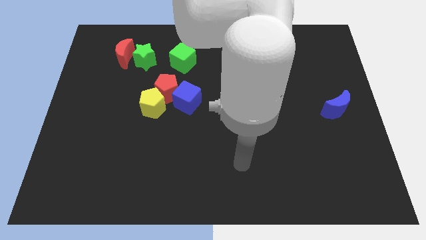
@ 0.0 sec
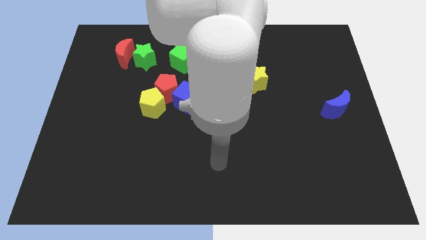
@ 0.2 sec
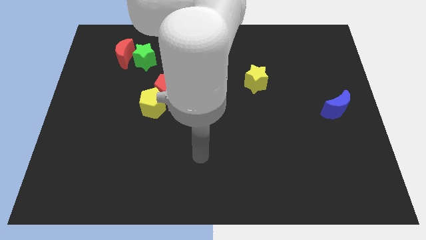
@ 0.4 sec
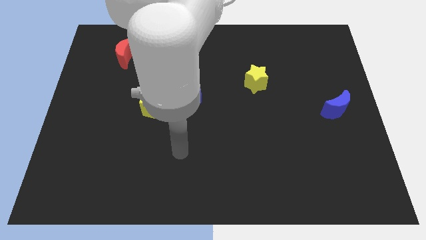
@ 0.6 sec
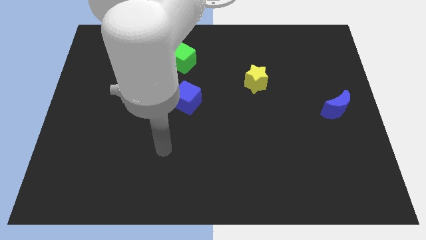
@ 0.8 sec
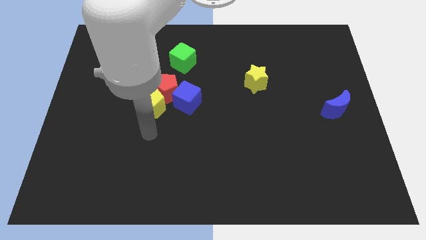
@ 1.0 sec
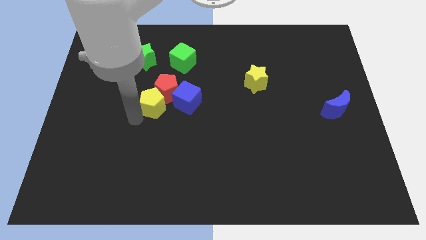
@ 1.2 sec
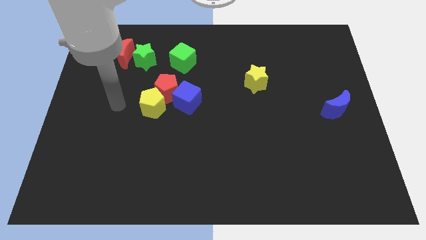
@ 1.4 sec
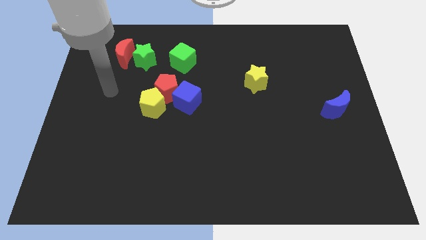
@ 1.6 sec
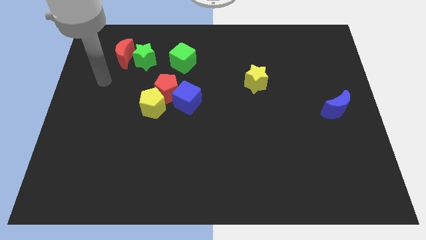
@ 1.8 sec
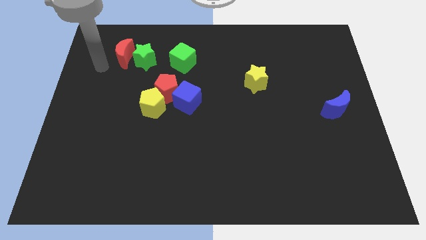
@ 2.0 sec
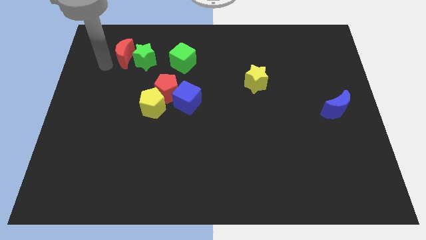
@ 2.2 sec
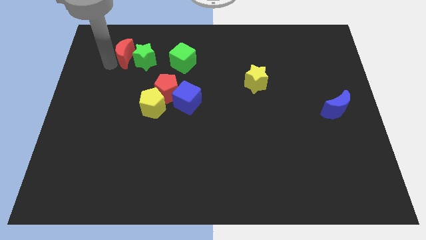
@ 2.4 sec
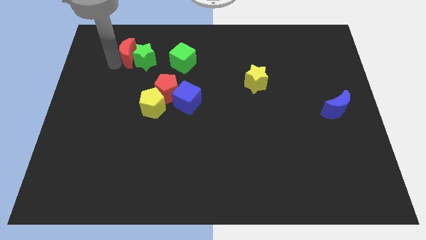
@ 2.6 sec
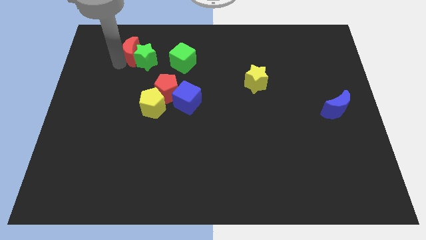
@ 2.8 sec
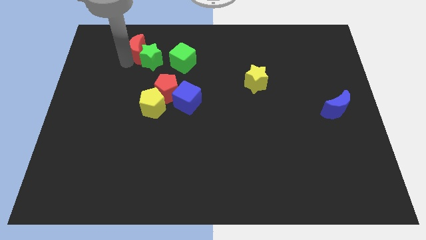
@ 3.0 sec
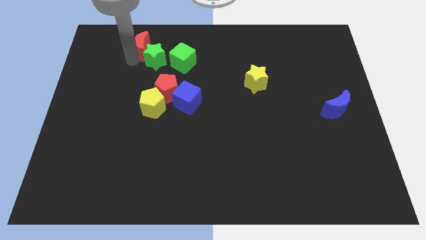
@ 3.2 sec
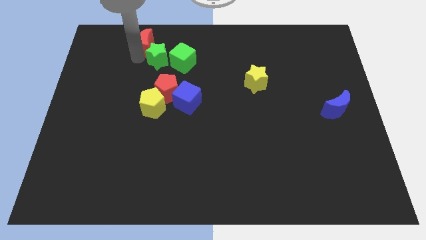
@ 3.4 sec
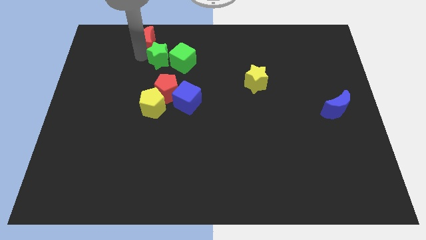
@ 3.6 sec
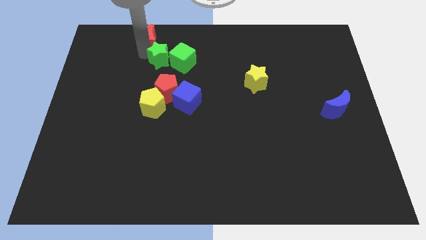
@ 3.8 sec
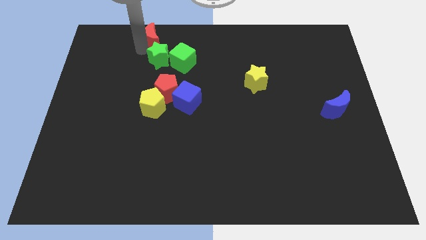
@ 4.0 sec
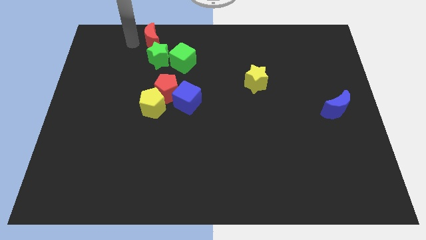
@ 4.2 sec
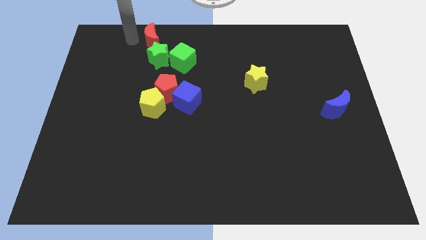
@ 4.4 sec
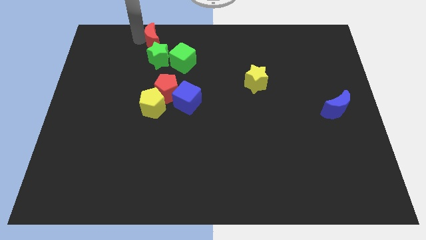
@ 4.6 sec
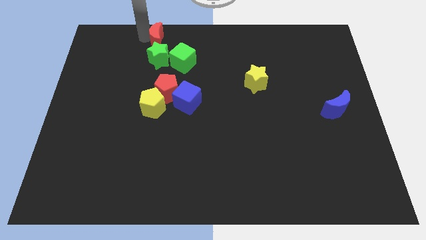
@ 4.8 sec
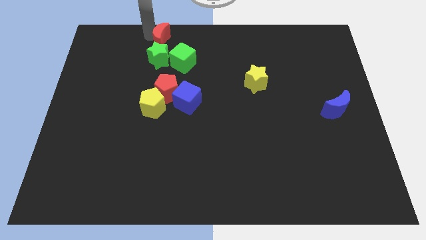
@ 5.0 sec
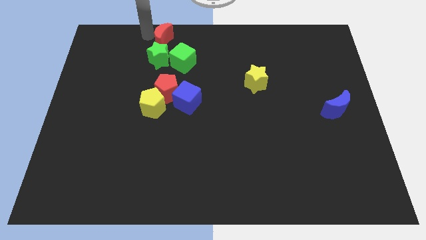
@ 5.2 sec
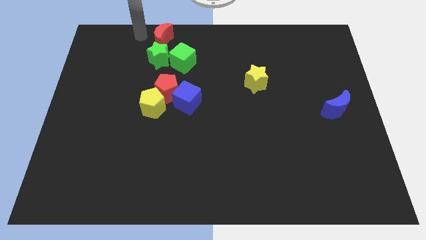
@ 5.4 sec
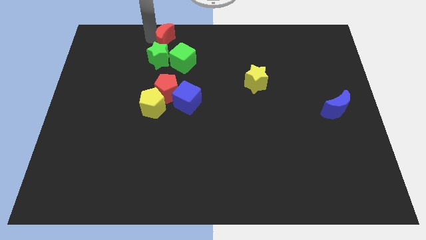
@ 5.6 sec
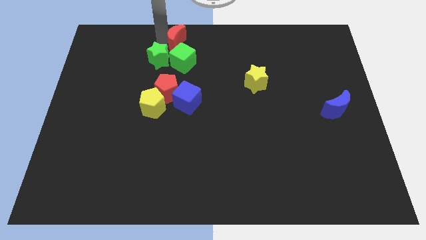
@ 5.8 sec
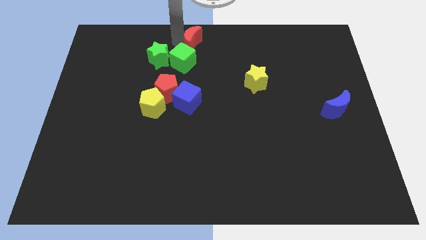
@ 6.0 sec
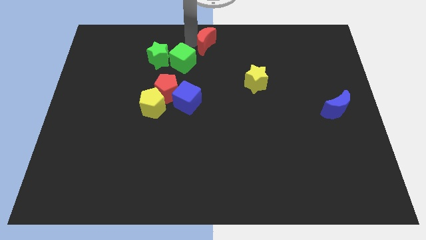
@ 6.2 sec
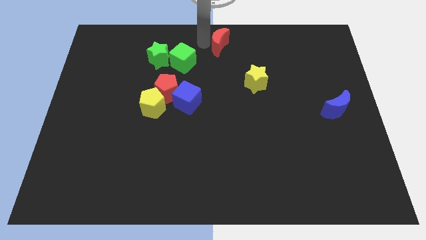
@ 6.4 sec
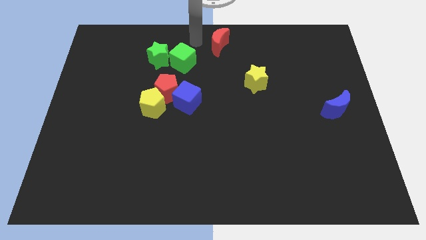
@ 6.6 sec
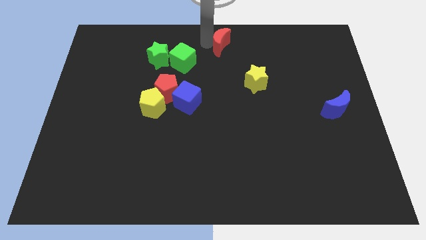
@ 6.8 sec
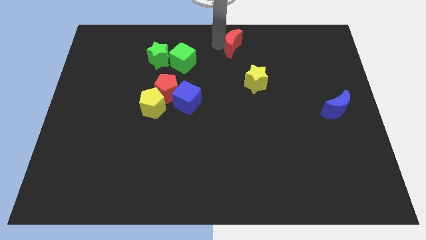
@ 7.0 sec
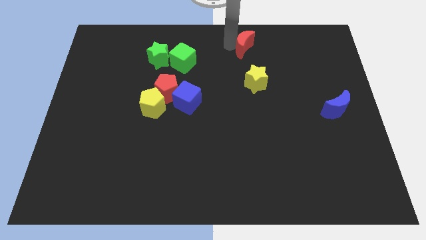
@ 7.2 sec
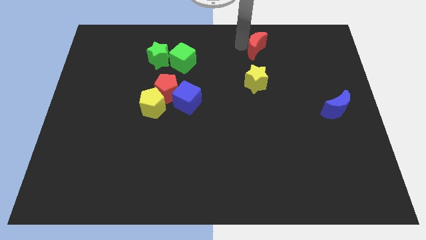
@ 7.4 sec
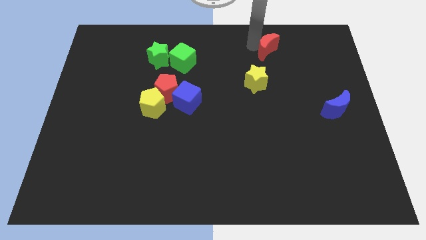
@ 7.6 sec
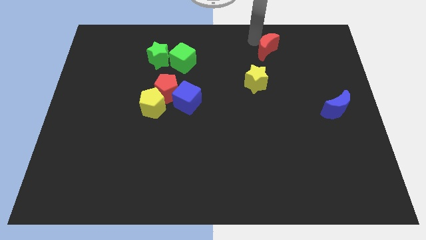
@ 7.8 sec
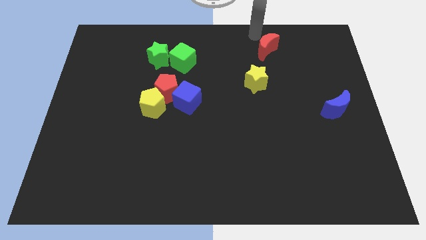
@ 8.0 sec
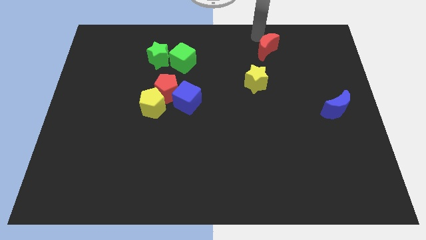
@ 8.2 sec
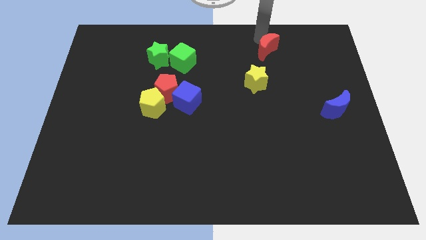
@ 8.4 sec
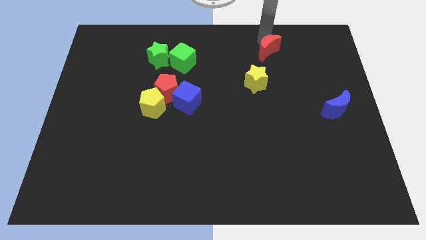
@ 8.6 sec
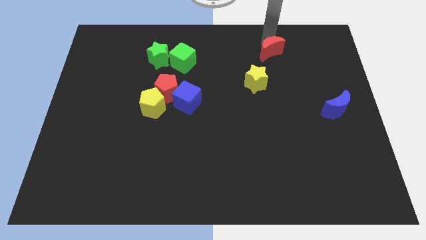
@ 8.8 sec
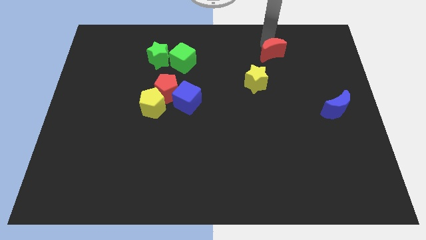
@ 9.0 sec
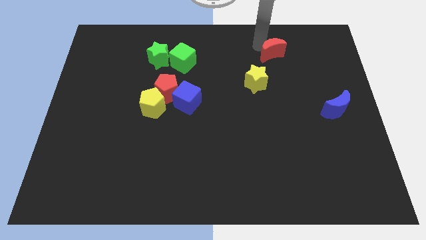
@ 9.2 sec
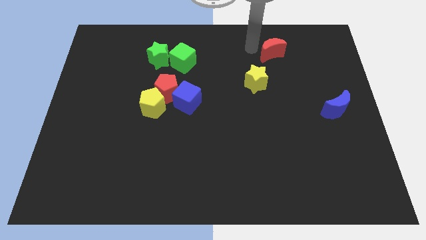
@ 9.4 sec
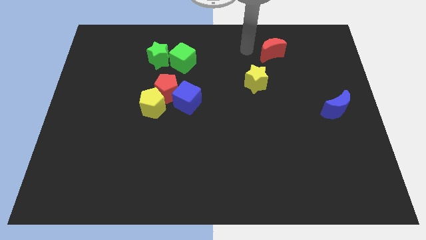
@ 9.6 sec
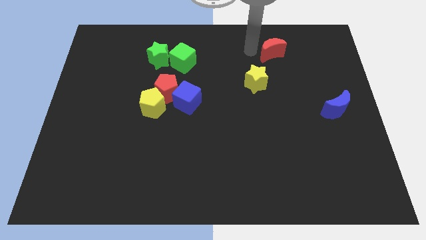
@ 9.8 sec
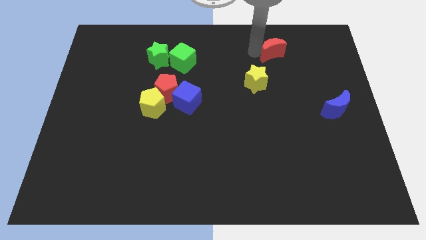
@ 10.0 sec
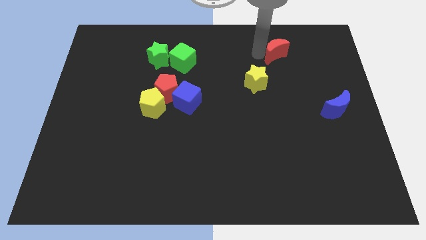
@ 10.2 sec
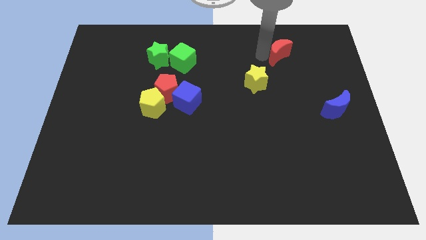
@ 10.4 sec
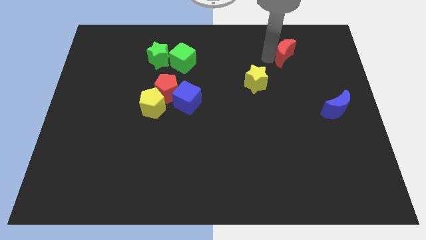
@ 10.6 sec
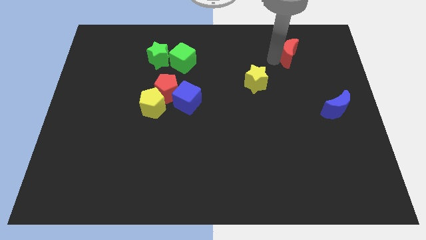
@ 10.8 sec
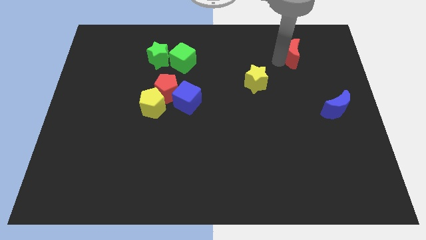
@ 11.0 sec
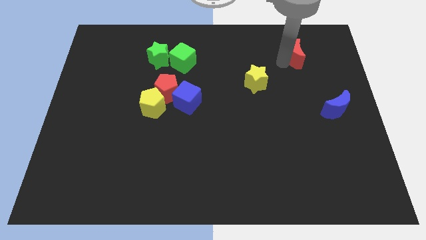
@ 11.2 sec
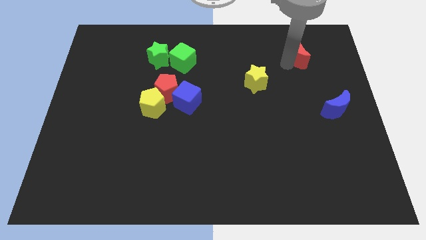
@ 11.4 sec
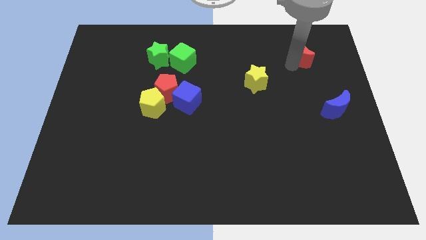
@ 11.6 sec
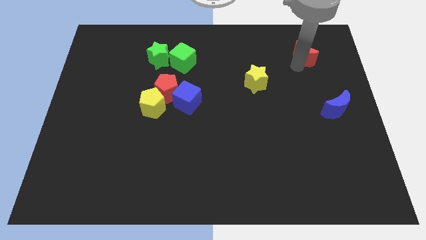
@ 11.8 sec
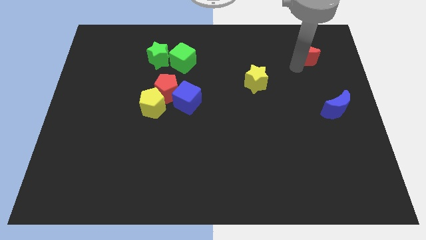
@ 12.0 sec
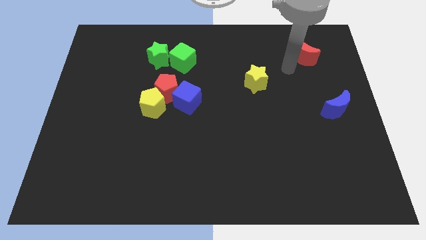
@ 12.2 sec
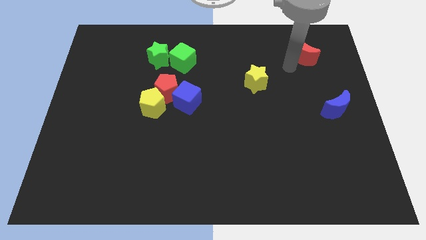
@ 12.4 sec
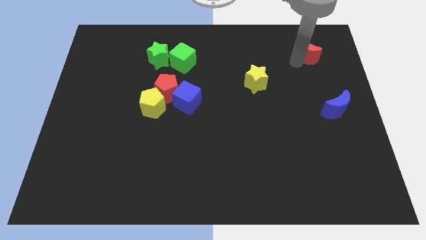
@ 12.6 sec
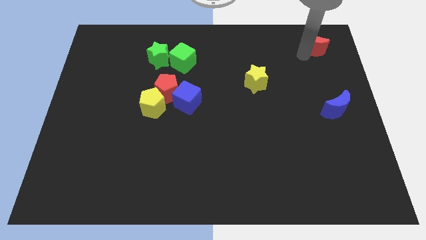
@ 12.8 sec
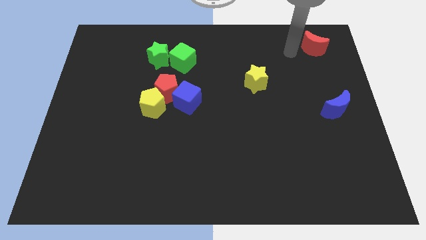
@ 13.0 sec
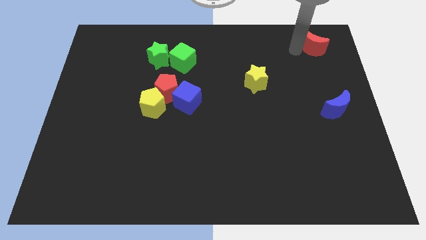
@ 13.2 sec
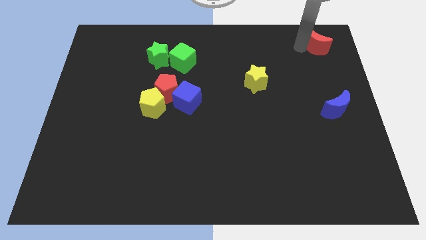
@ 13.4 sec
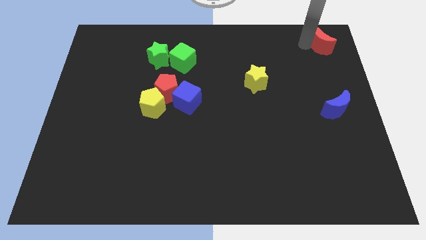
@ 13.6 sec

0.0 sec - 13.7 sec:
put the red moon to the top right of the board
